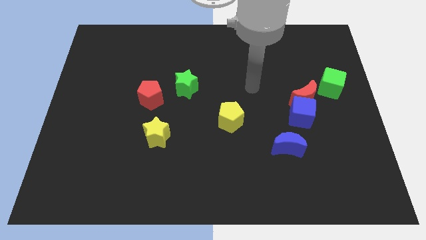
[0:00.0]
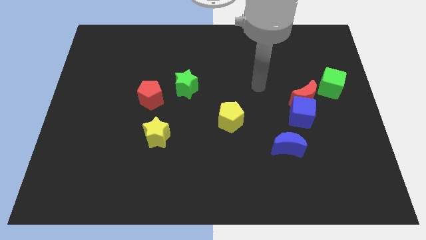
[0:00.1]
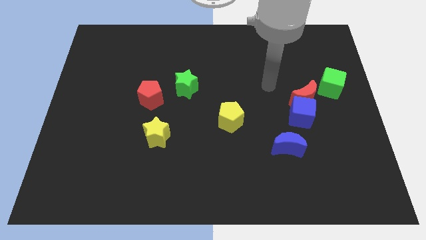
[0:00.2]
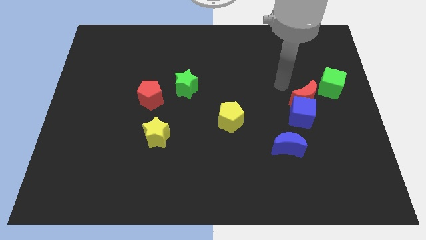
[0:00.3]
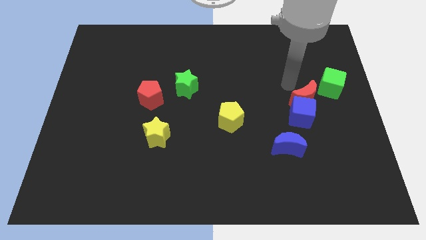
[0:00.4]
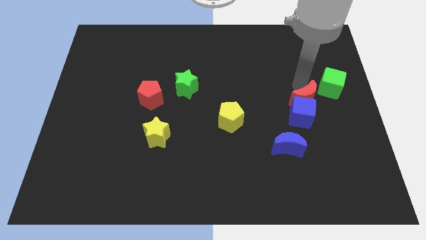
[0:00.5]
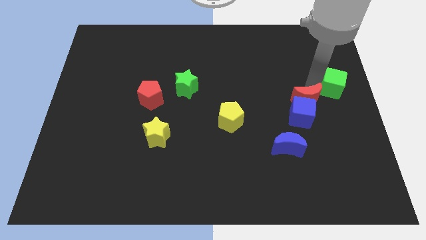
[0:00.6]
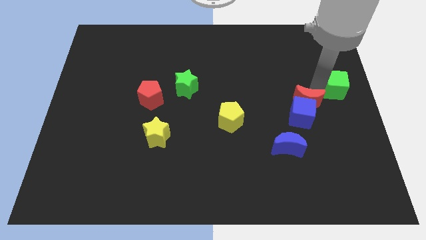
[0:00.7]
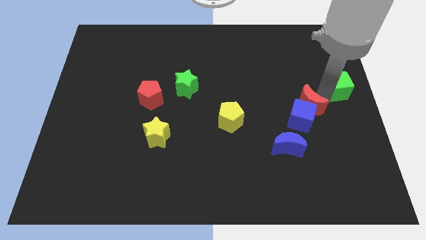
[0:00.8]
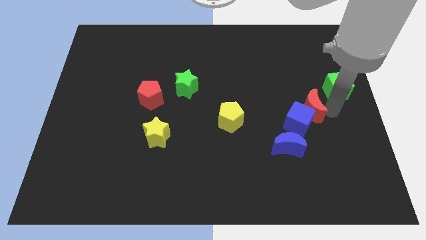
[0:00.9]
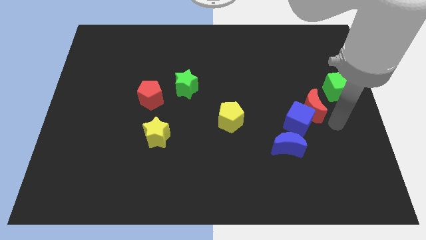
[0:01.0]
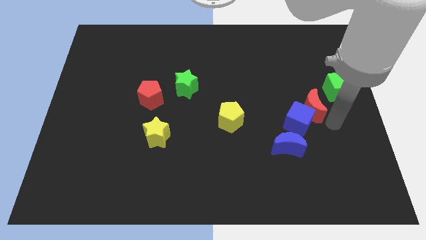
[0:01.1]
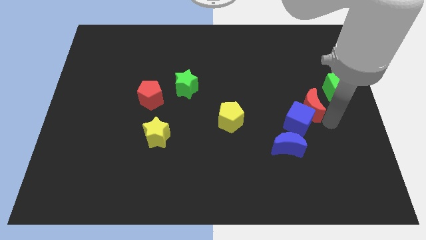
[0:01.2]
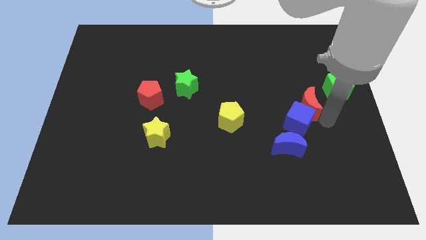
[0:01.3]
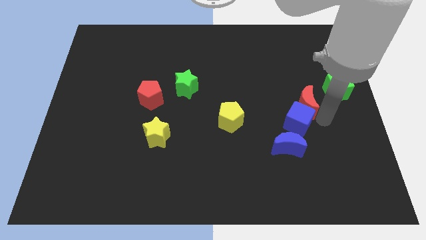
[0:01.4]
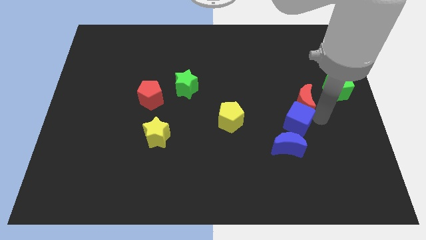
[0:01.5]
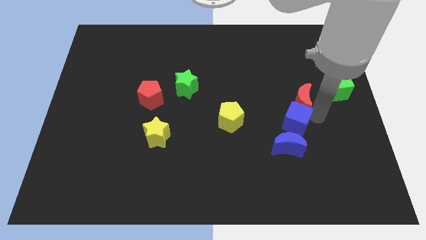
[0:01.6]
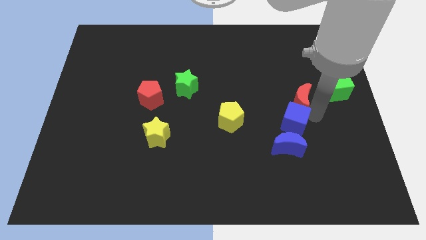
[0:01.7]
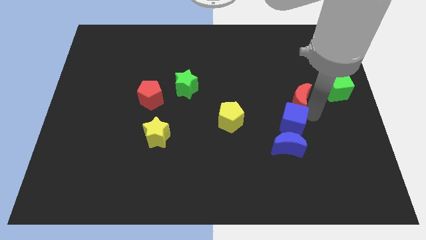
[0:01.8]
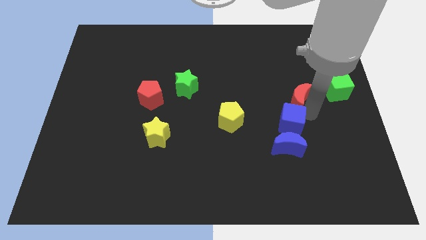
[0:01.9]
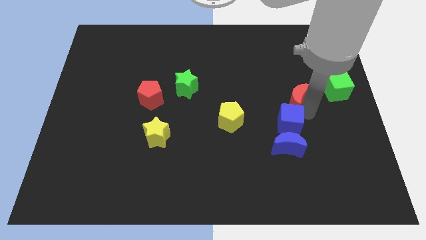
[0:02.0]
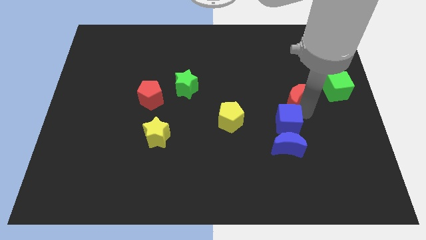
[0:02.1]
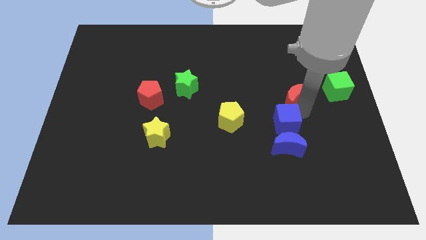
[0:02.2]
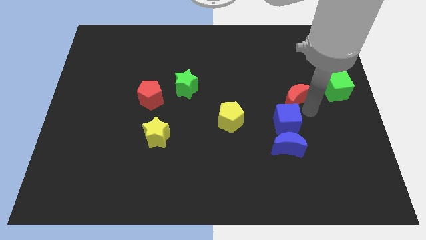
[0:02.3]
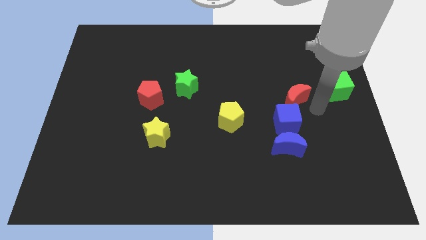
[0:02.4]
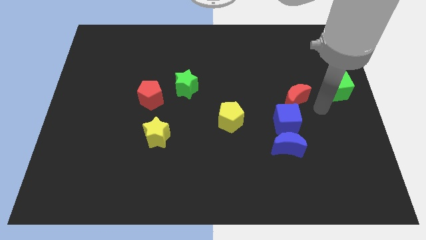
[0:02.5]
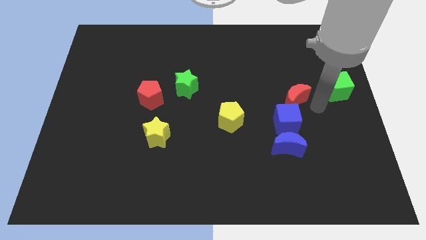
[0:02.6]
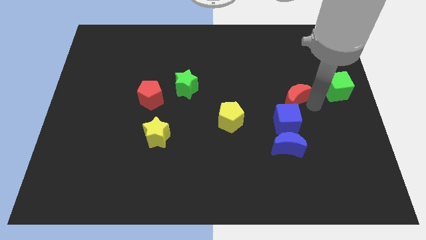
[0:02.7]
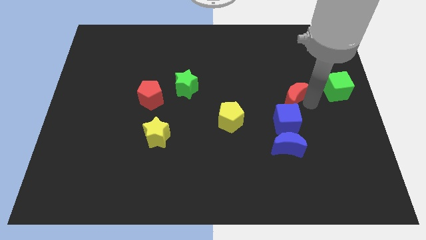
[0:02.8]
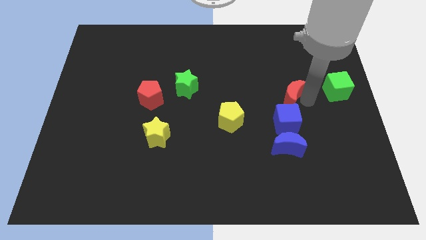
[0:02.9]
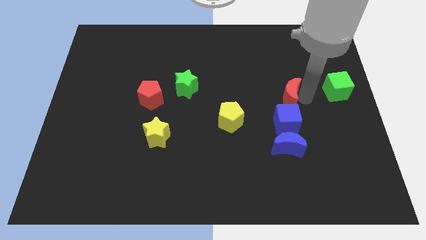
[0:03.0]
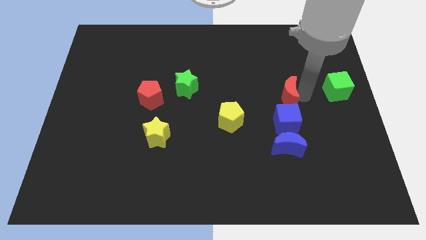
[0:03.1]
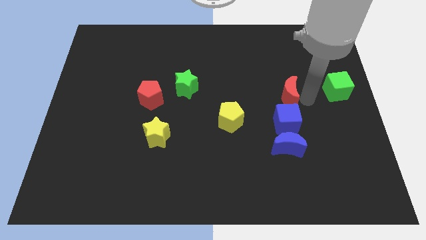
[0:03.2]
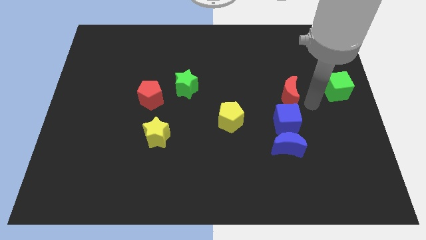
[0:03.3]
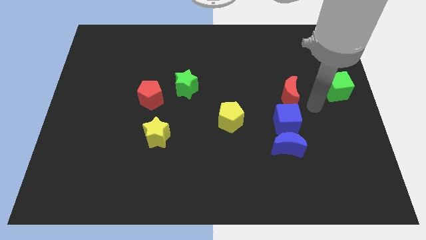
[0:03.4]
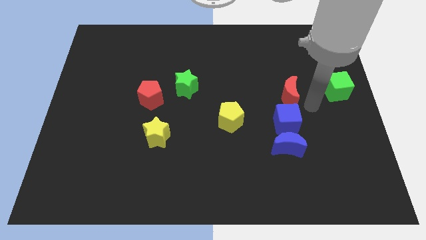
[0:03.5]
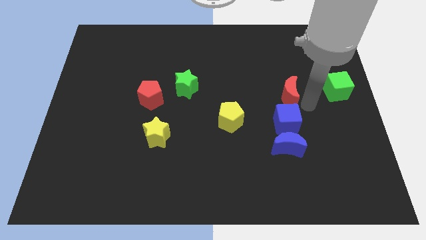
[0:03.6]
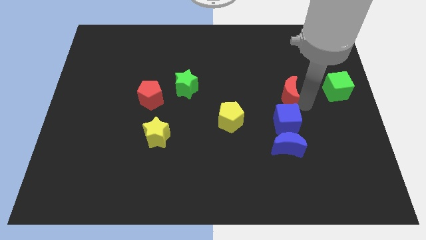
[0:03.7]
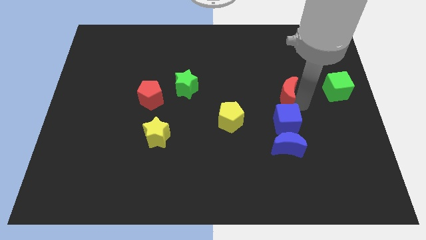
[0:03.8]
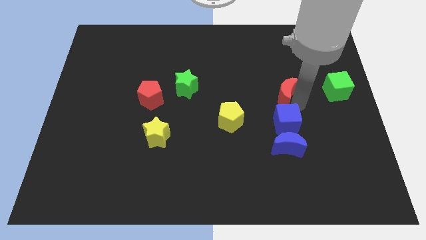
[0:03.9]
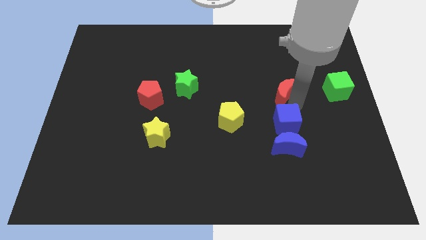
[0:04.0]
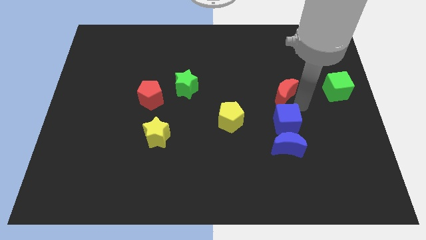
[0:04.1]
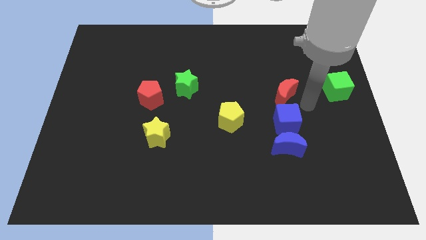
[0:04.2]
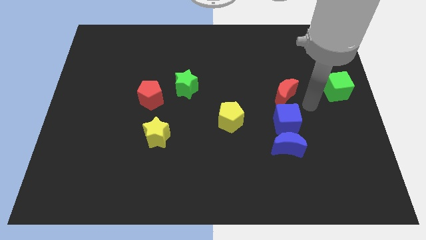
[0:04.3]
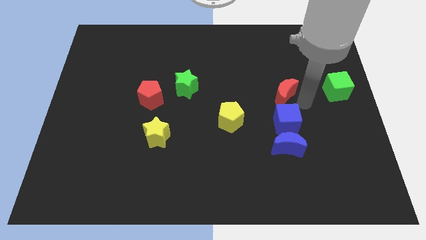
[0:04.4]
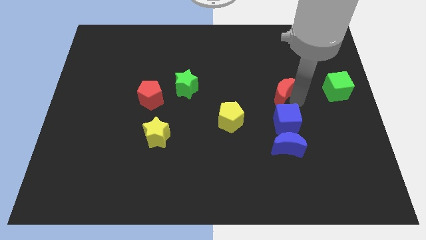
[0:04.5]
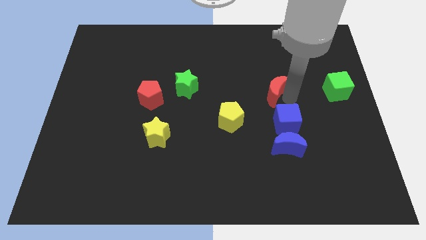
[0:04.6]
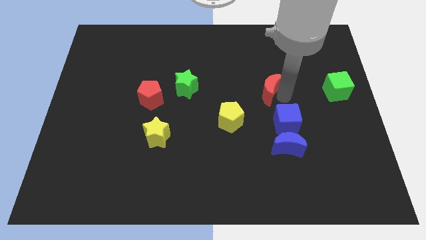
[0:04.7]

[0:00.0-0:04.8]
move the red moon away from the blue cube and green cube

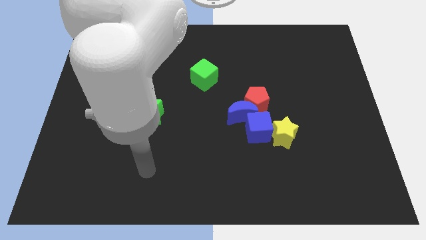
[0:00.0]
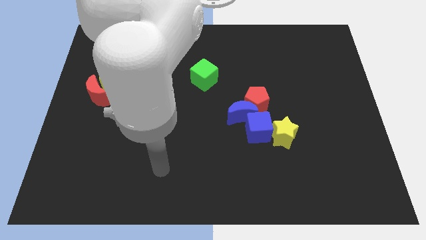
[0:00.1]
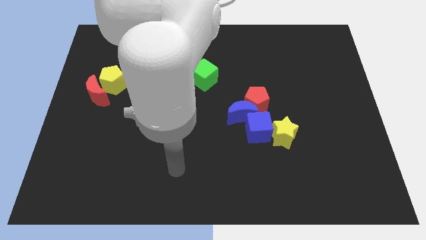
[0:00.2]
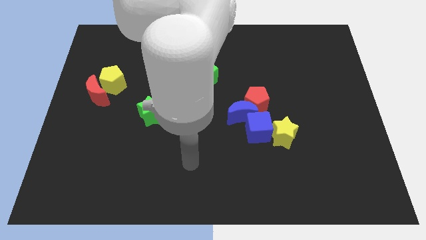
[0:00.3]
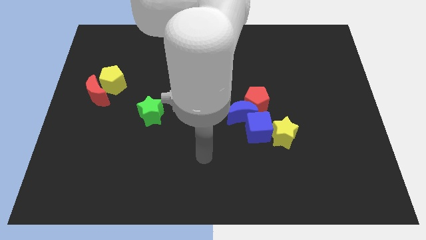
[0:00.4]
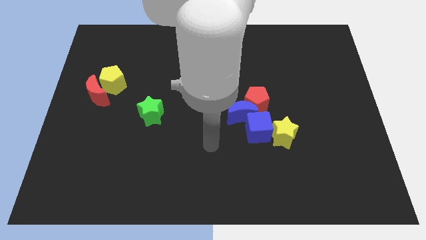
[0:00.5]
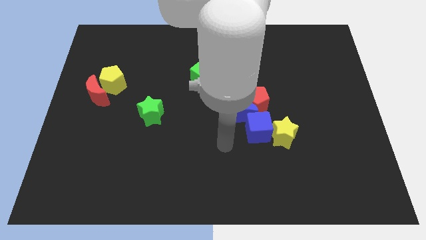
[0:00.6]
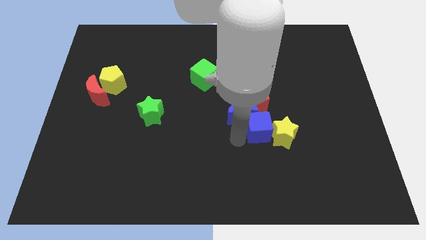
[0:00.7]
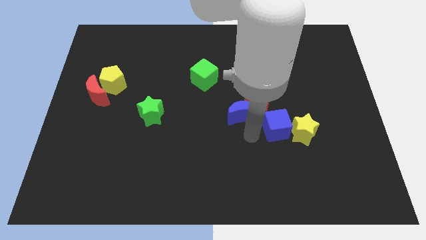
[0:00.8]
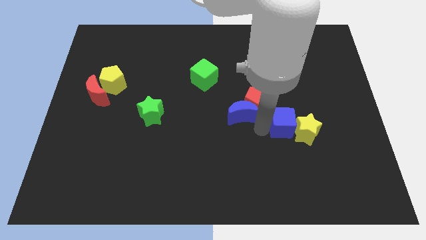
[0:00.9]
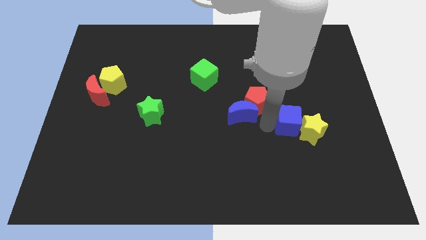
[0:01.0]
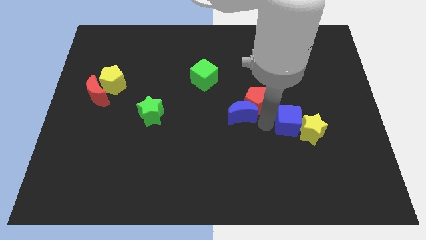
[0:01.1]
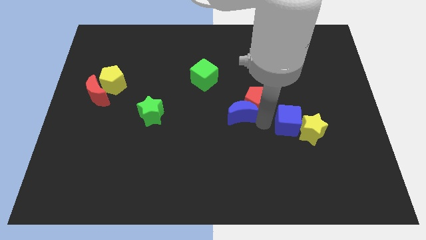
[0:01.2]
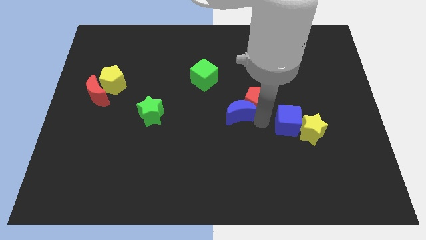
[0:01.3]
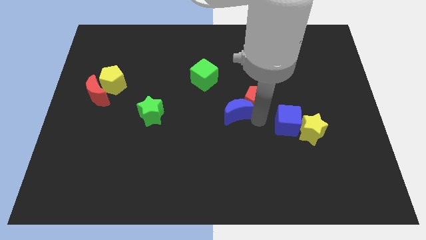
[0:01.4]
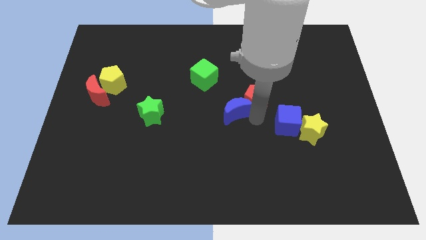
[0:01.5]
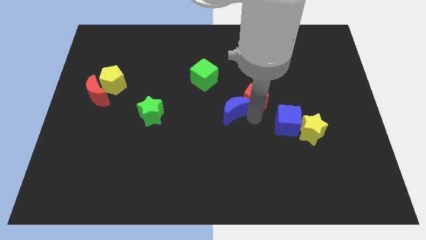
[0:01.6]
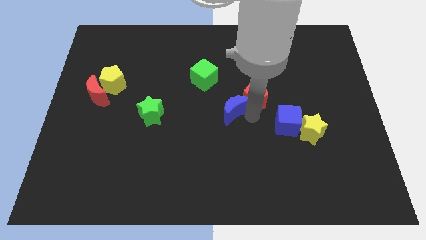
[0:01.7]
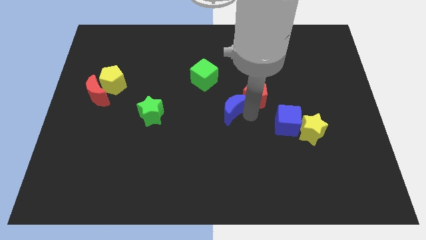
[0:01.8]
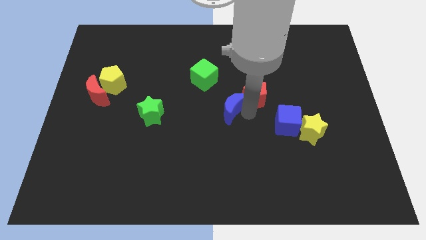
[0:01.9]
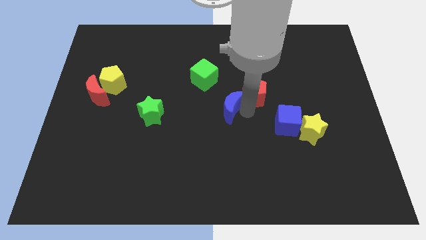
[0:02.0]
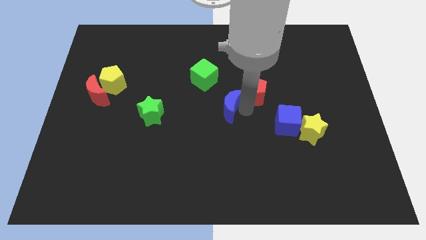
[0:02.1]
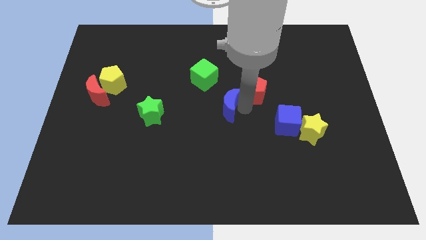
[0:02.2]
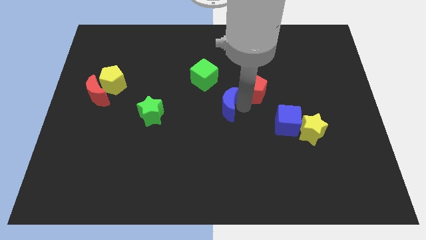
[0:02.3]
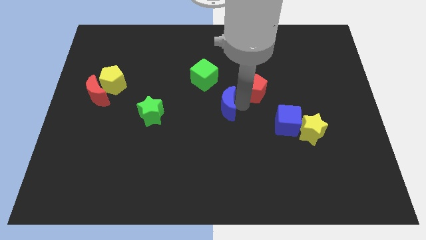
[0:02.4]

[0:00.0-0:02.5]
pull the blue moon apart from the red pentagon and blue cube

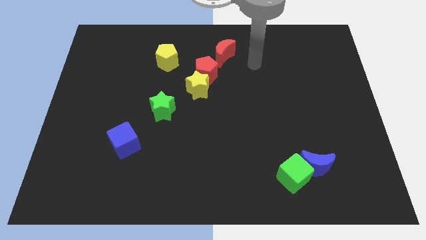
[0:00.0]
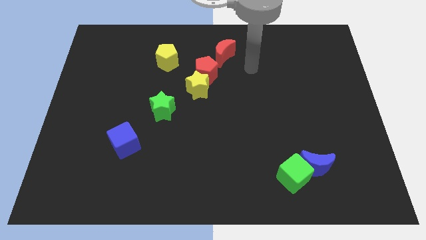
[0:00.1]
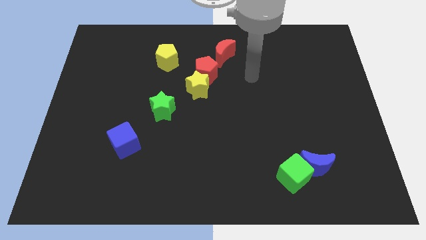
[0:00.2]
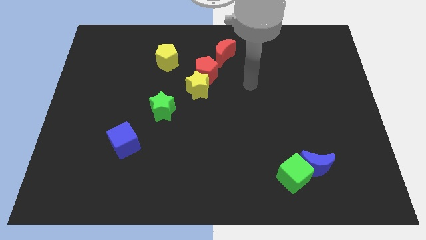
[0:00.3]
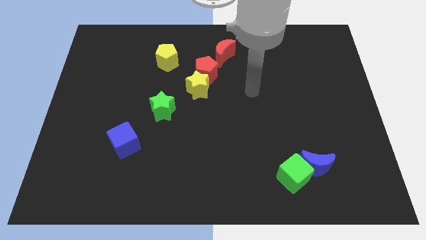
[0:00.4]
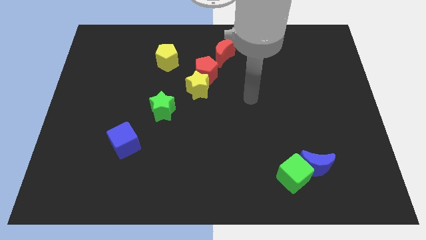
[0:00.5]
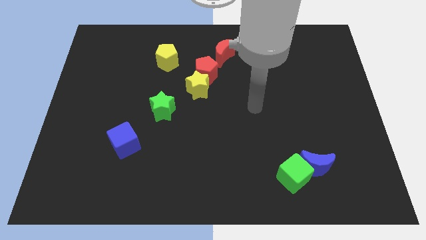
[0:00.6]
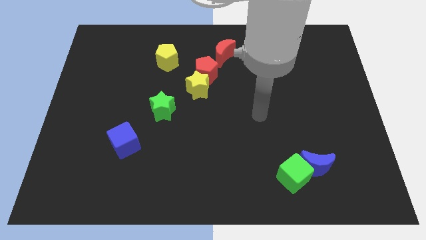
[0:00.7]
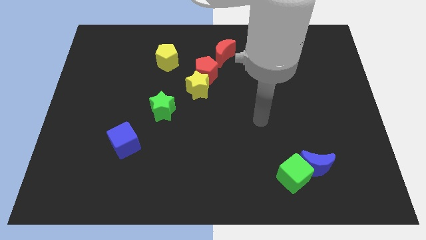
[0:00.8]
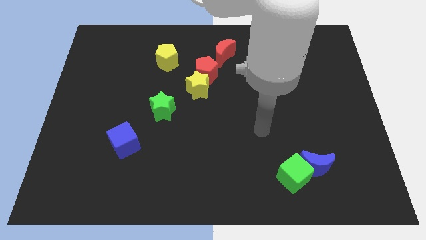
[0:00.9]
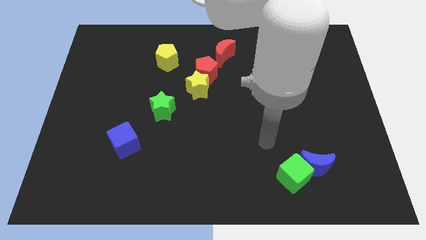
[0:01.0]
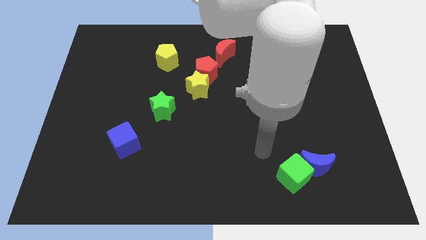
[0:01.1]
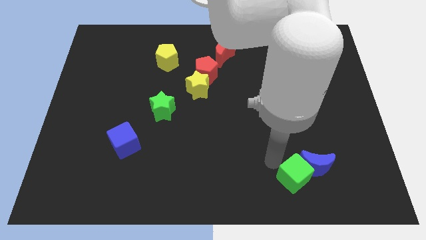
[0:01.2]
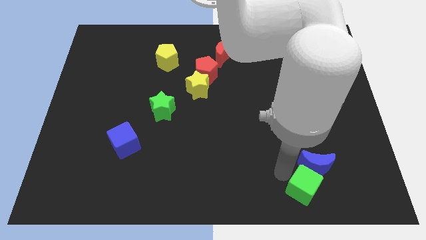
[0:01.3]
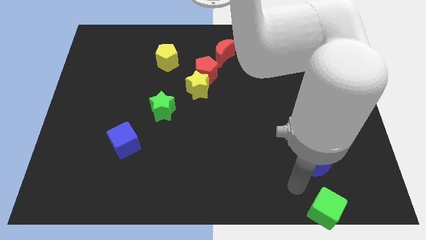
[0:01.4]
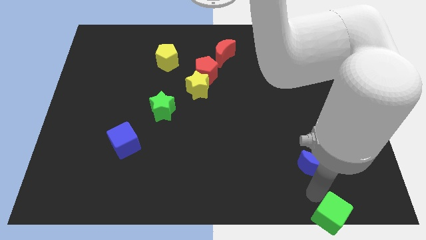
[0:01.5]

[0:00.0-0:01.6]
pull the blue moon apart from the green cube

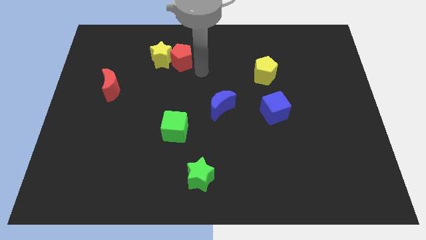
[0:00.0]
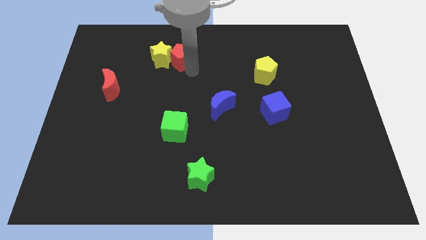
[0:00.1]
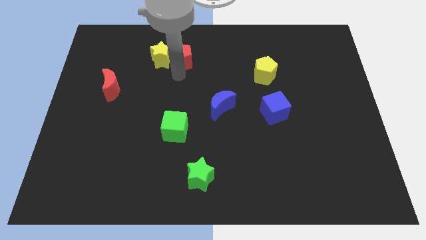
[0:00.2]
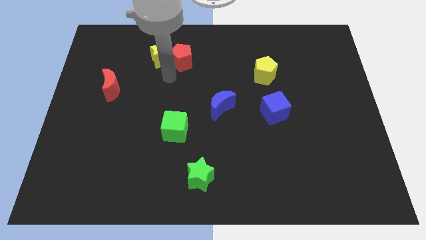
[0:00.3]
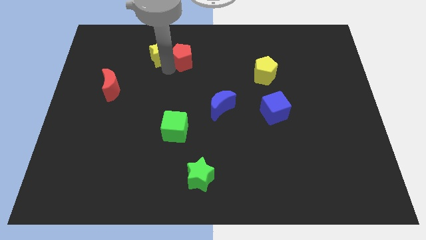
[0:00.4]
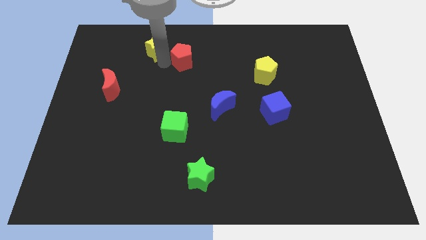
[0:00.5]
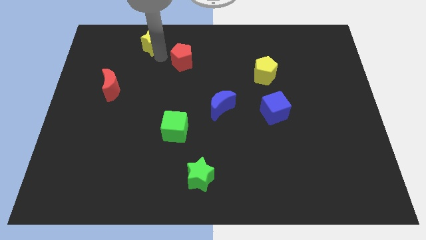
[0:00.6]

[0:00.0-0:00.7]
separate the red pentagon from the yellow star
